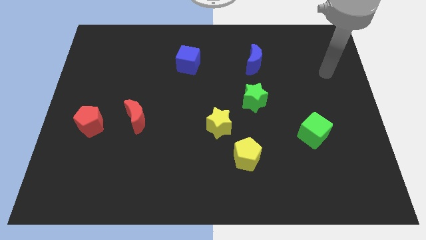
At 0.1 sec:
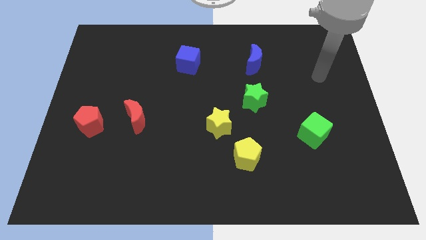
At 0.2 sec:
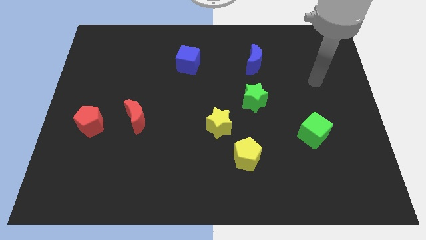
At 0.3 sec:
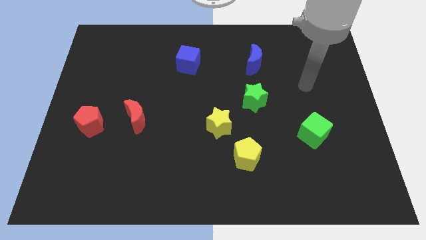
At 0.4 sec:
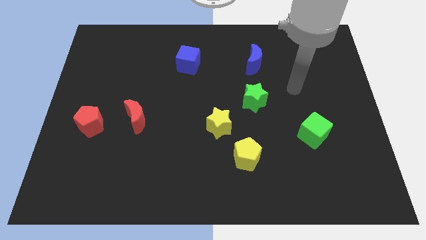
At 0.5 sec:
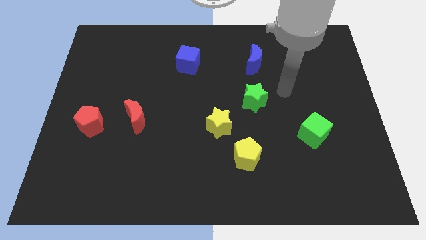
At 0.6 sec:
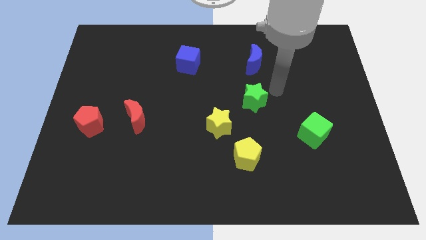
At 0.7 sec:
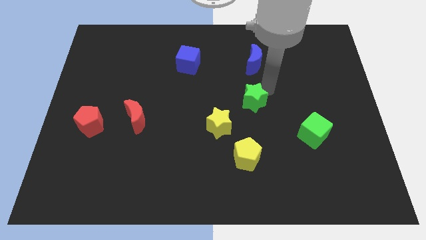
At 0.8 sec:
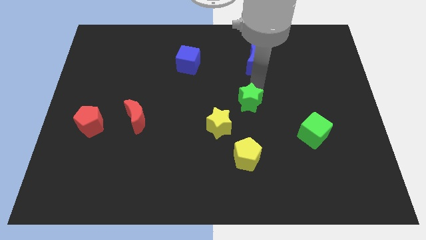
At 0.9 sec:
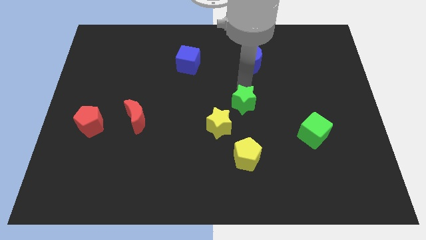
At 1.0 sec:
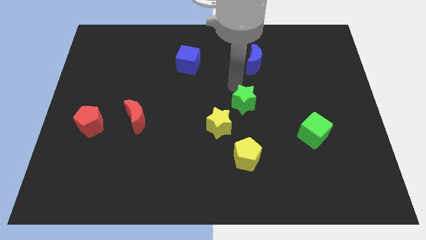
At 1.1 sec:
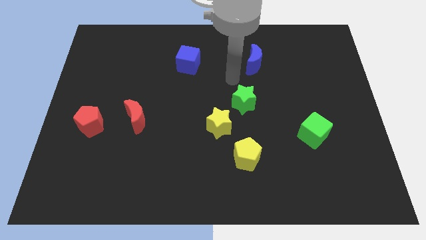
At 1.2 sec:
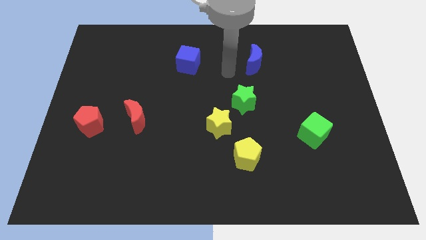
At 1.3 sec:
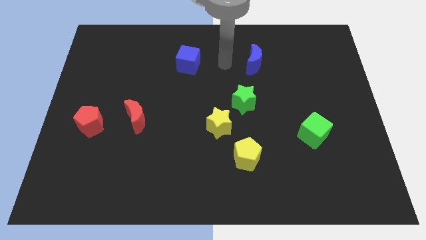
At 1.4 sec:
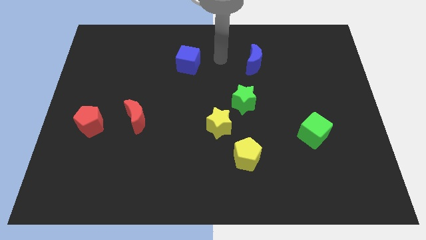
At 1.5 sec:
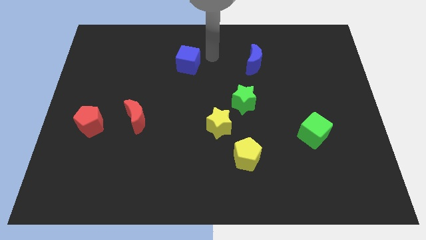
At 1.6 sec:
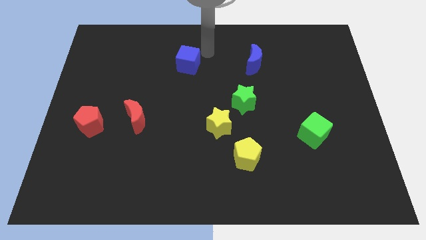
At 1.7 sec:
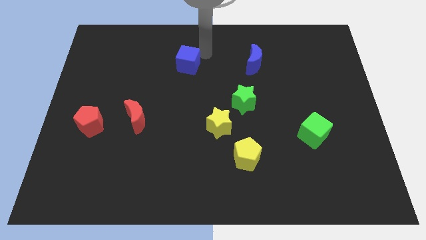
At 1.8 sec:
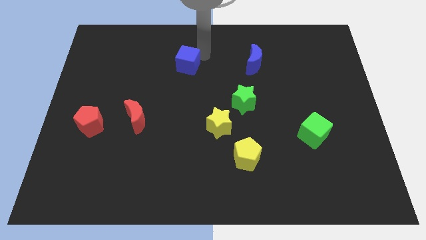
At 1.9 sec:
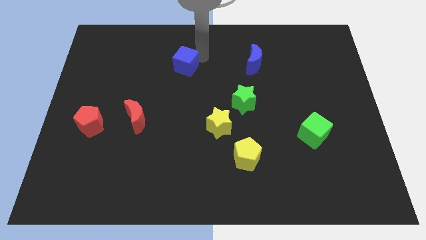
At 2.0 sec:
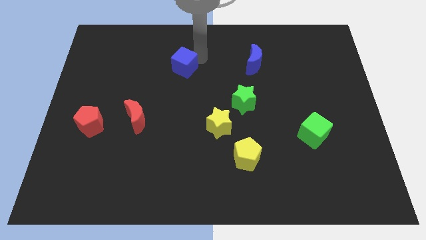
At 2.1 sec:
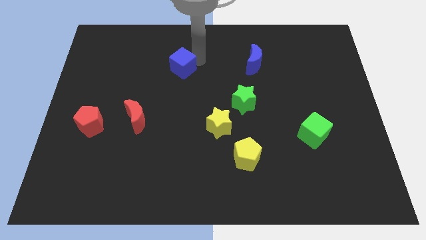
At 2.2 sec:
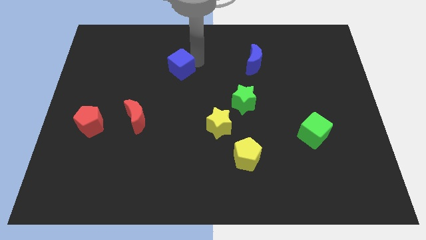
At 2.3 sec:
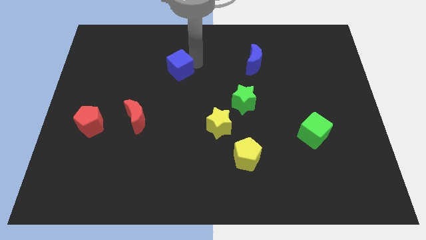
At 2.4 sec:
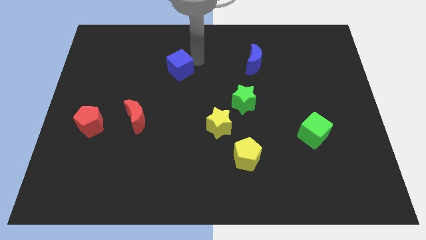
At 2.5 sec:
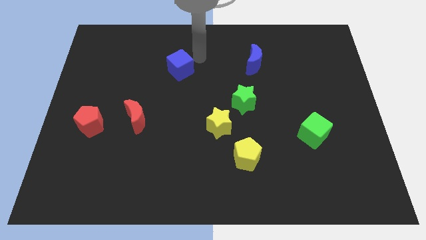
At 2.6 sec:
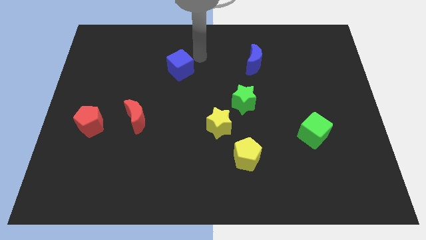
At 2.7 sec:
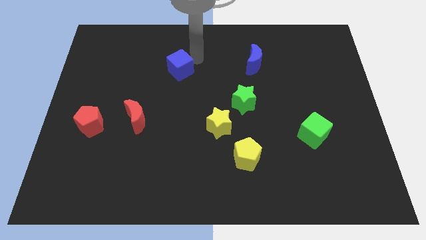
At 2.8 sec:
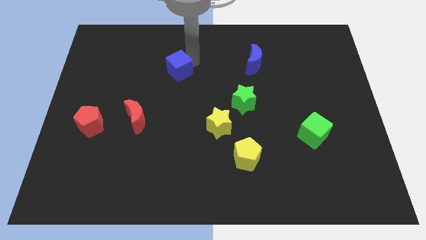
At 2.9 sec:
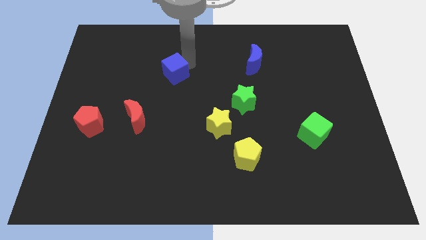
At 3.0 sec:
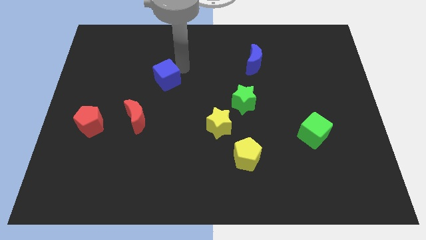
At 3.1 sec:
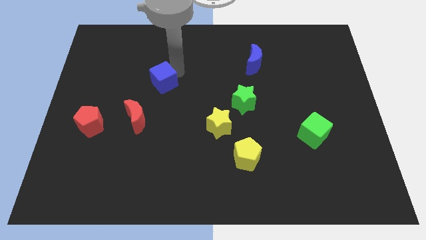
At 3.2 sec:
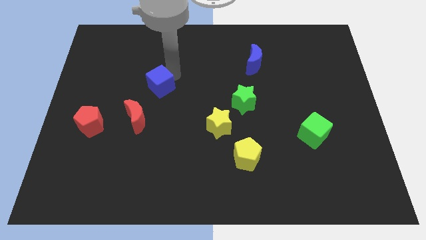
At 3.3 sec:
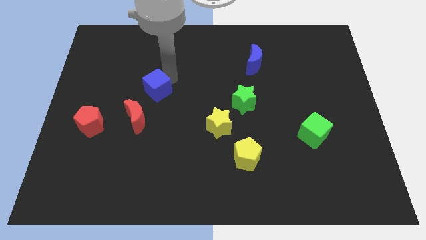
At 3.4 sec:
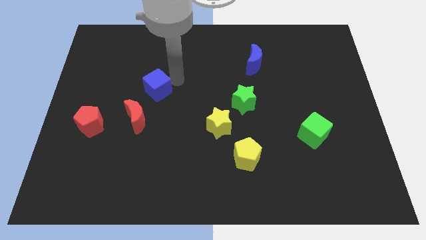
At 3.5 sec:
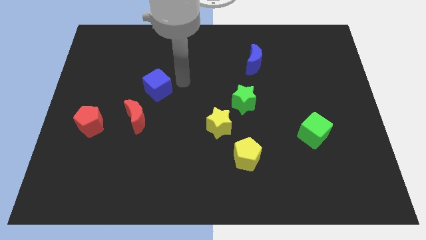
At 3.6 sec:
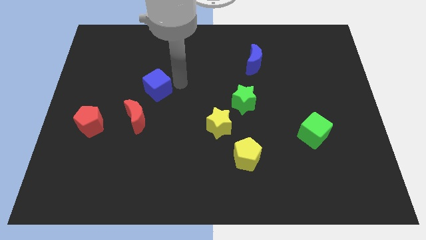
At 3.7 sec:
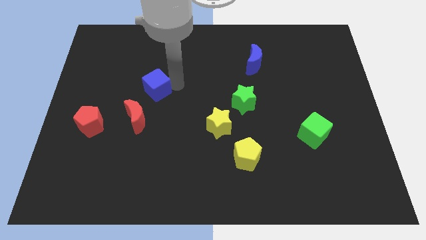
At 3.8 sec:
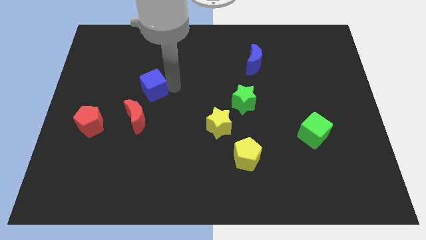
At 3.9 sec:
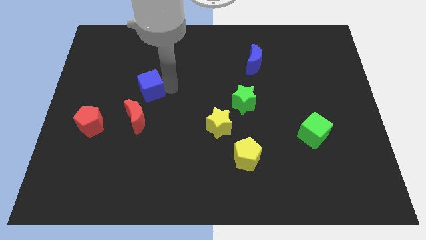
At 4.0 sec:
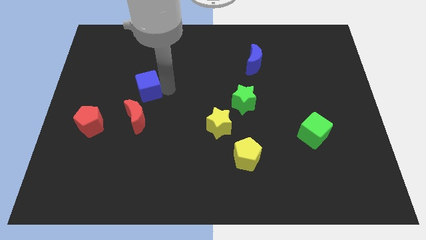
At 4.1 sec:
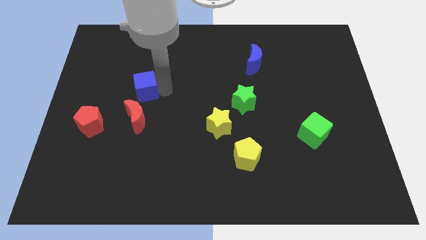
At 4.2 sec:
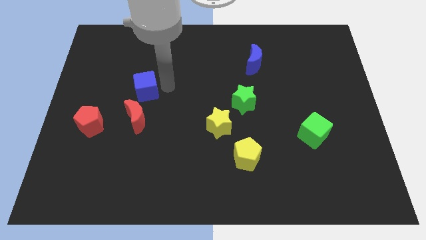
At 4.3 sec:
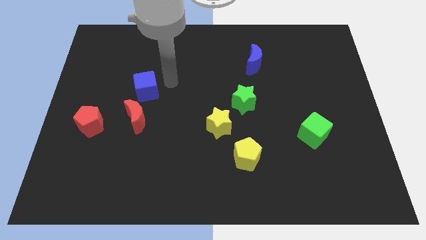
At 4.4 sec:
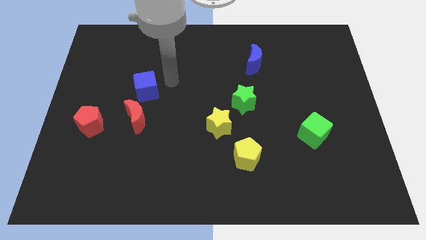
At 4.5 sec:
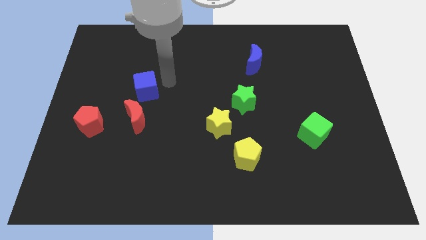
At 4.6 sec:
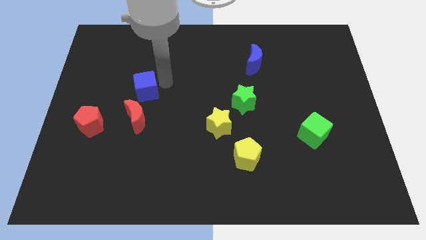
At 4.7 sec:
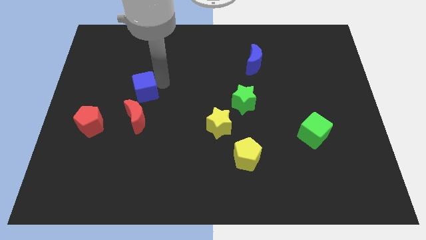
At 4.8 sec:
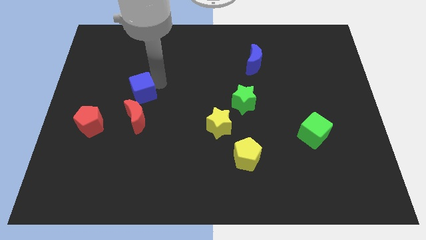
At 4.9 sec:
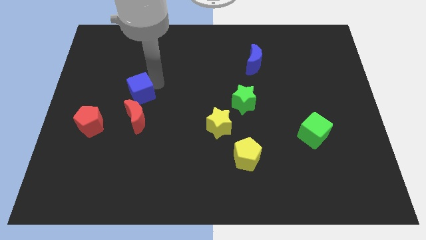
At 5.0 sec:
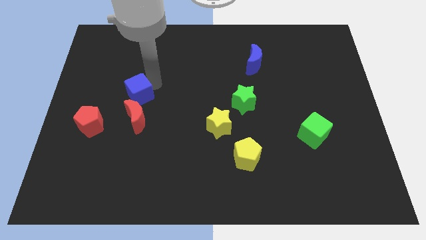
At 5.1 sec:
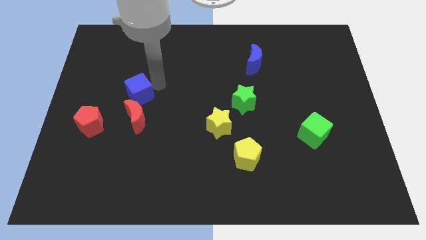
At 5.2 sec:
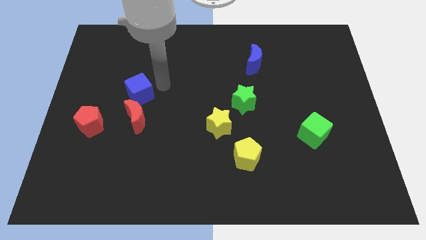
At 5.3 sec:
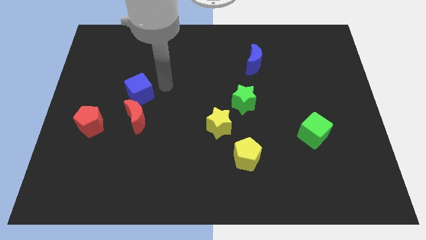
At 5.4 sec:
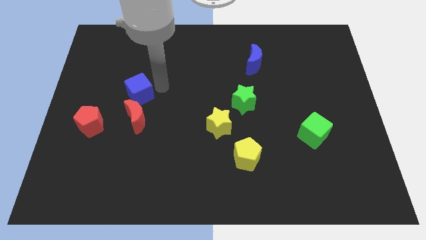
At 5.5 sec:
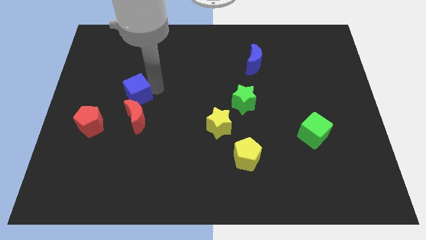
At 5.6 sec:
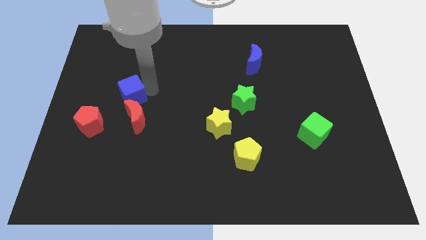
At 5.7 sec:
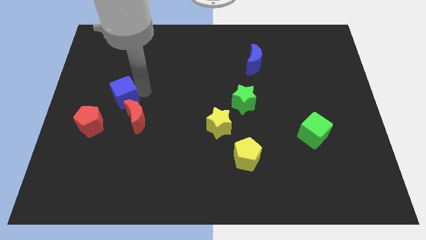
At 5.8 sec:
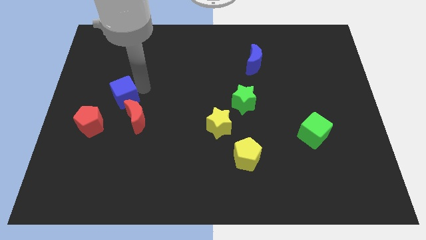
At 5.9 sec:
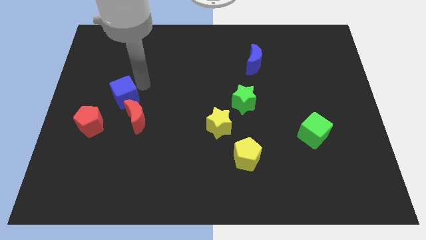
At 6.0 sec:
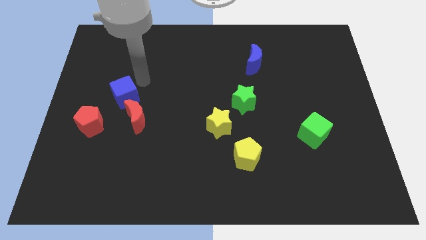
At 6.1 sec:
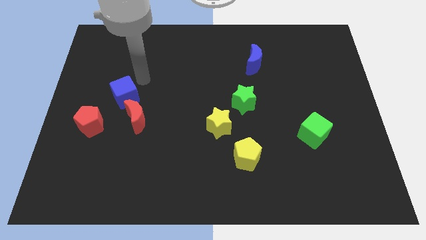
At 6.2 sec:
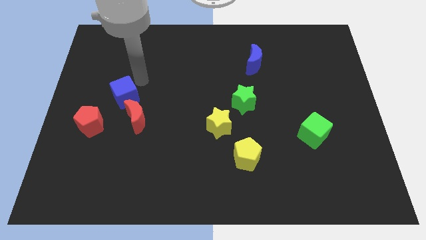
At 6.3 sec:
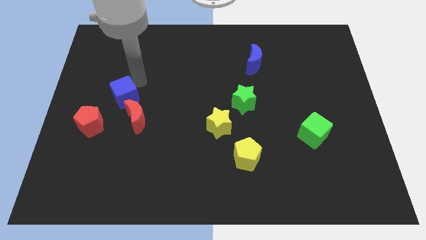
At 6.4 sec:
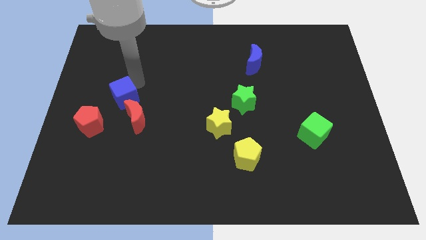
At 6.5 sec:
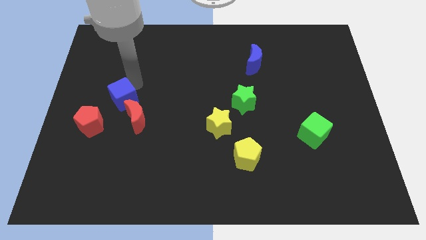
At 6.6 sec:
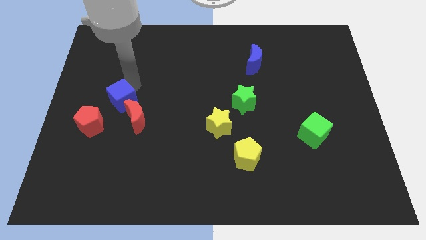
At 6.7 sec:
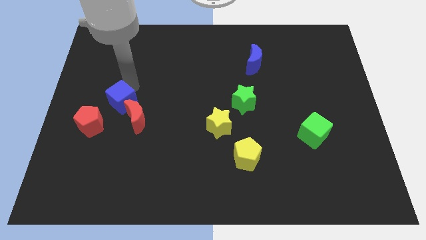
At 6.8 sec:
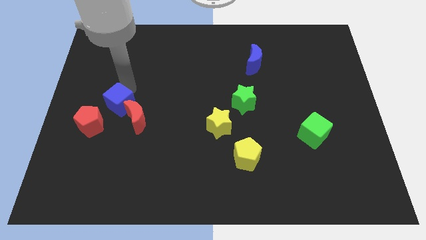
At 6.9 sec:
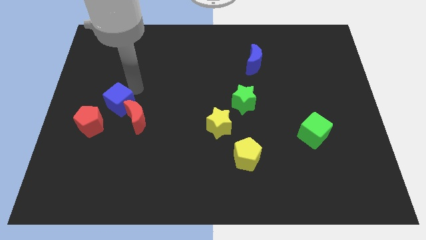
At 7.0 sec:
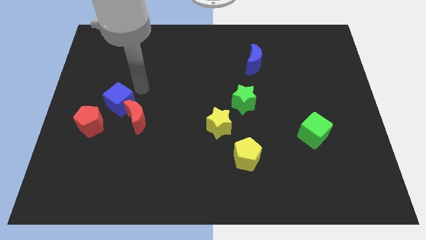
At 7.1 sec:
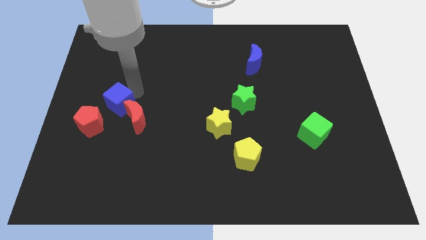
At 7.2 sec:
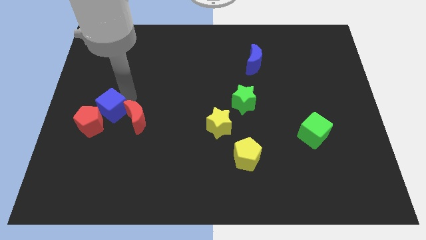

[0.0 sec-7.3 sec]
put the blue cube close to the red pentagon
